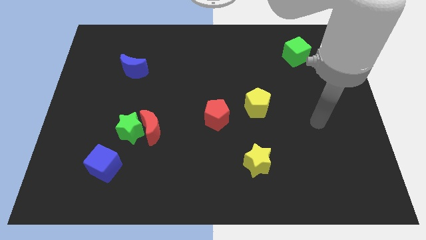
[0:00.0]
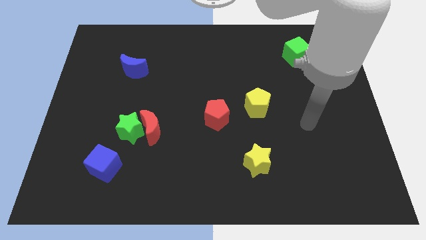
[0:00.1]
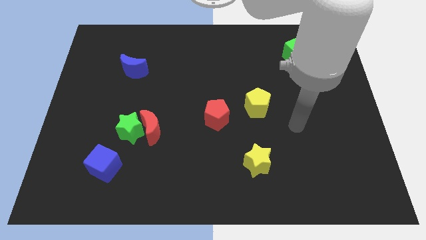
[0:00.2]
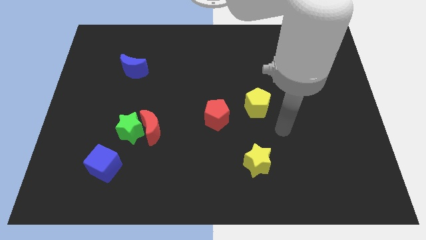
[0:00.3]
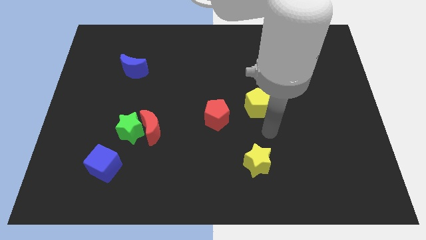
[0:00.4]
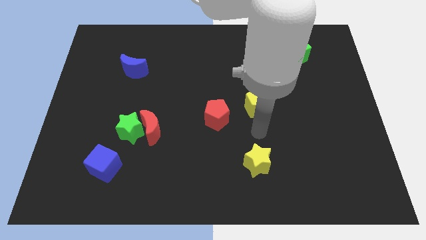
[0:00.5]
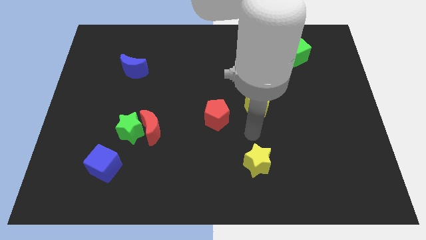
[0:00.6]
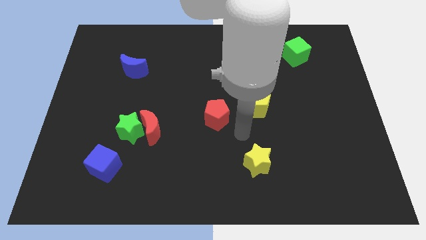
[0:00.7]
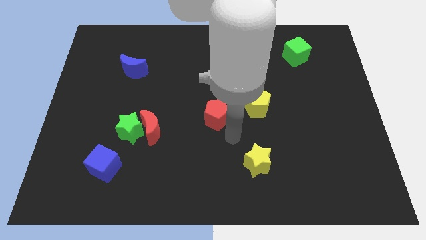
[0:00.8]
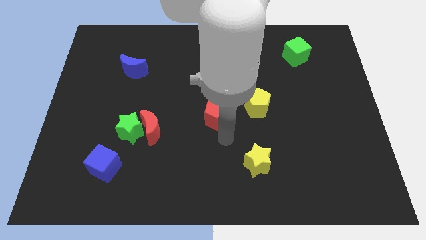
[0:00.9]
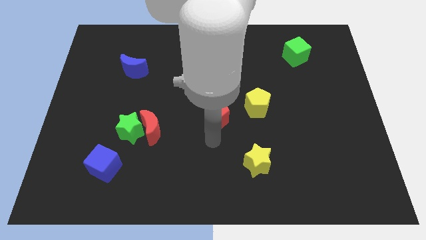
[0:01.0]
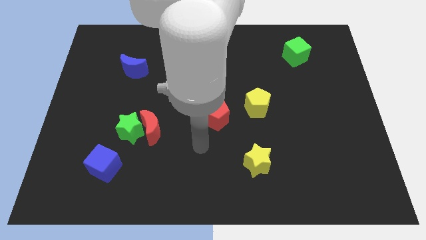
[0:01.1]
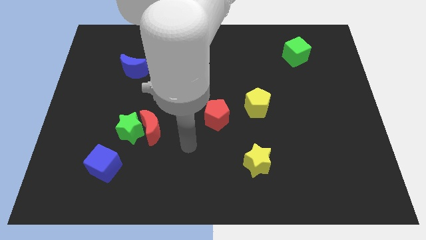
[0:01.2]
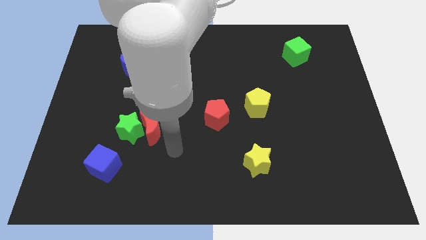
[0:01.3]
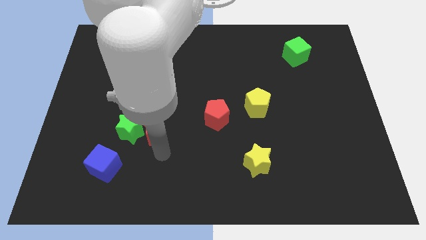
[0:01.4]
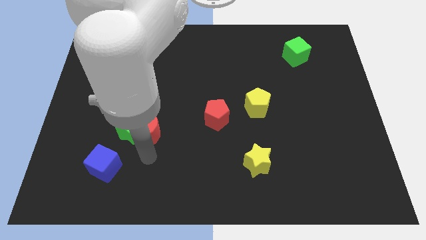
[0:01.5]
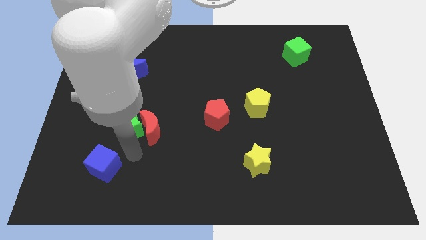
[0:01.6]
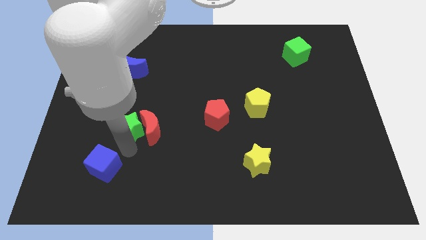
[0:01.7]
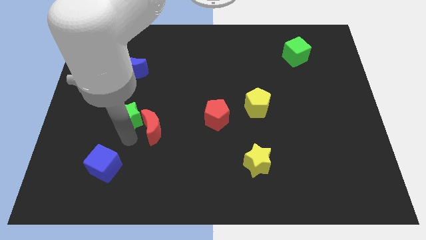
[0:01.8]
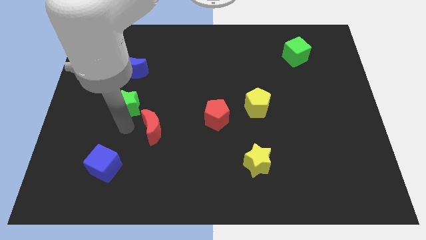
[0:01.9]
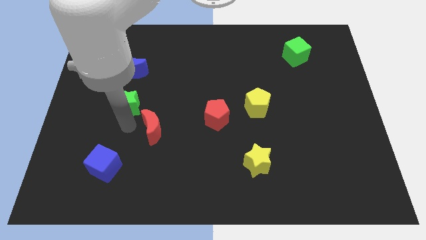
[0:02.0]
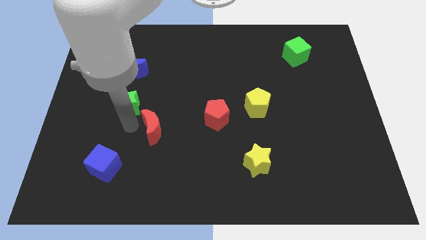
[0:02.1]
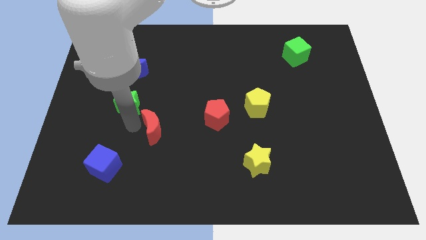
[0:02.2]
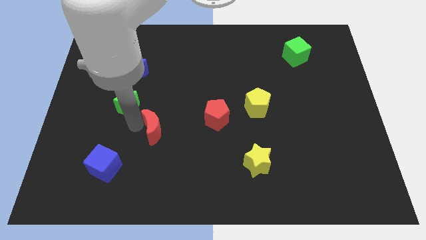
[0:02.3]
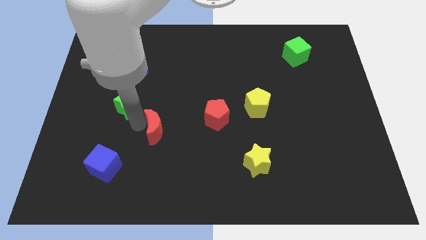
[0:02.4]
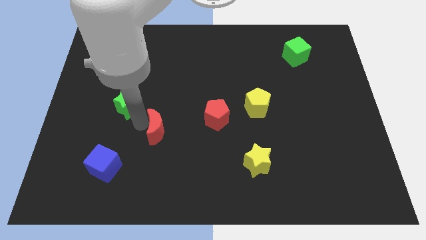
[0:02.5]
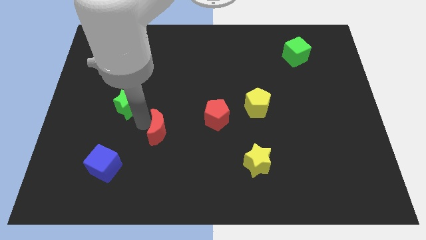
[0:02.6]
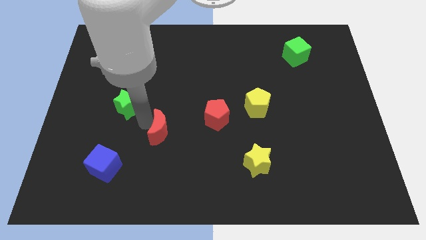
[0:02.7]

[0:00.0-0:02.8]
separate the red moon from the green star

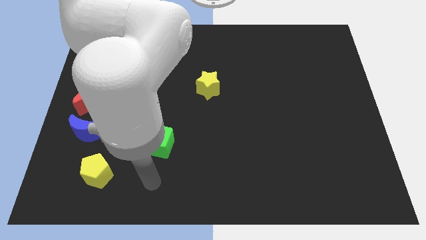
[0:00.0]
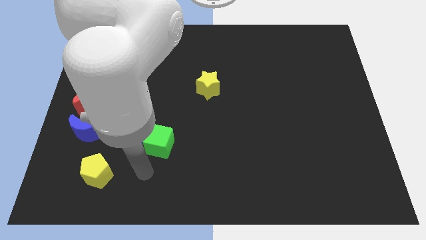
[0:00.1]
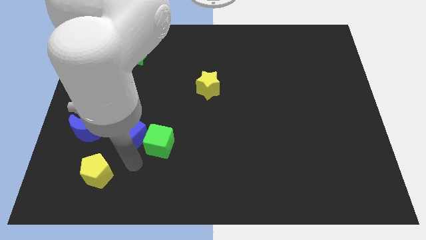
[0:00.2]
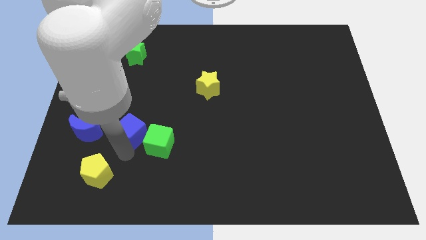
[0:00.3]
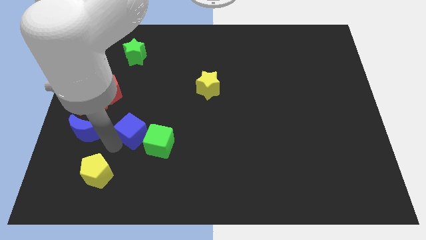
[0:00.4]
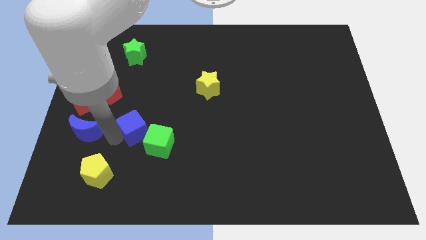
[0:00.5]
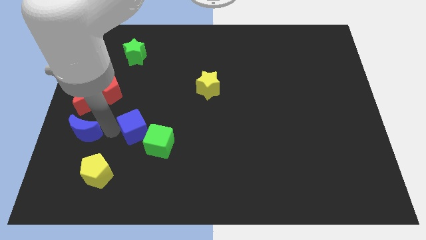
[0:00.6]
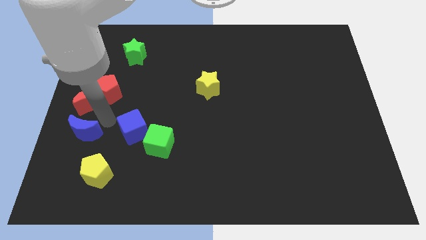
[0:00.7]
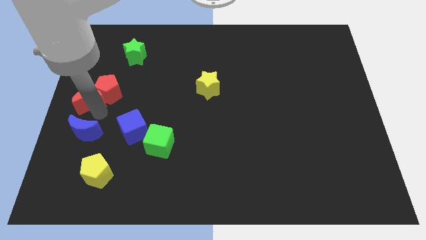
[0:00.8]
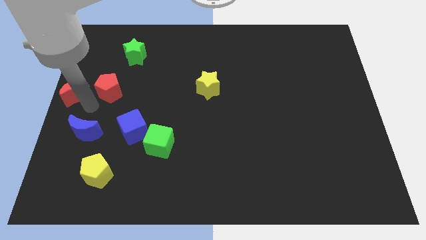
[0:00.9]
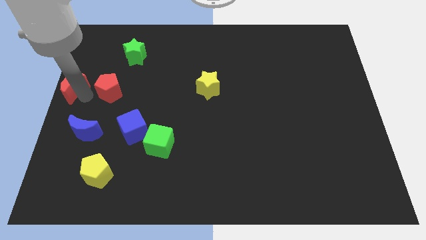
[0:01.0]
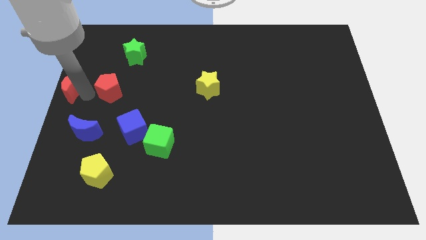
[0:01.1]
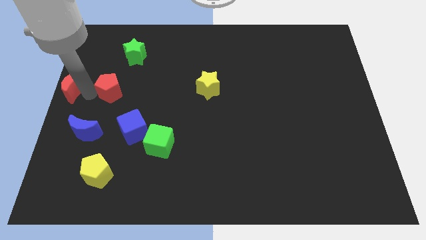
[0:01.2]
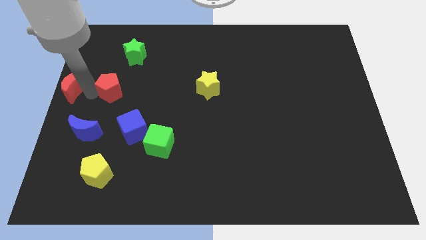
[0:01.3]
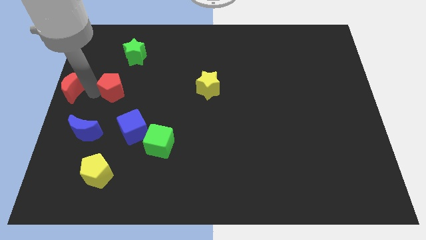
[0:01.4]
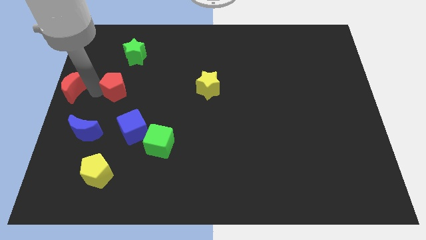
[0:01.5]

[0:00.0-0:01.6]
move the red pentagon away from the red moon

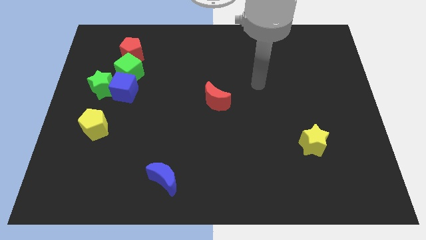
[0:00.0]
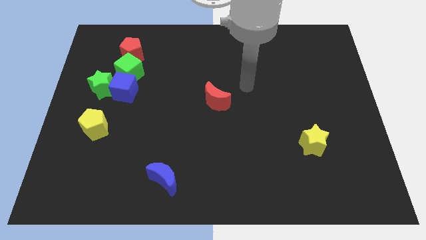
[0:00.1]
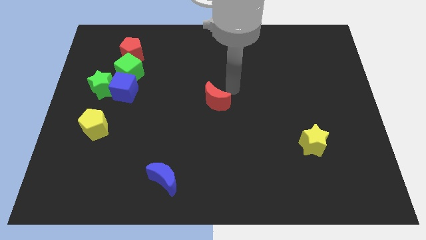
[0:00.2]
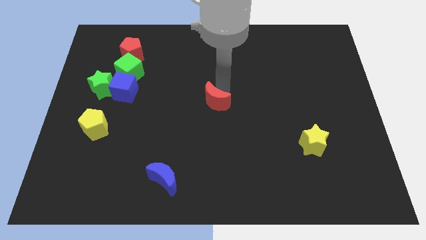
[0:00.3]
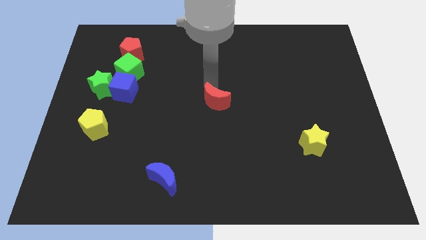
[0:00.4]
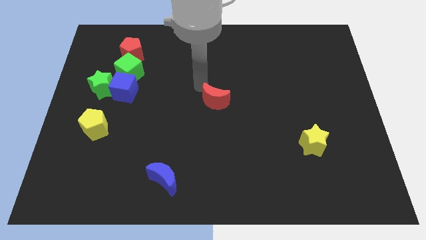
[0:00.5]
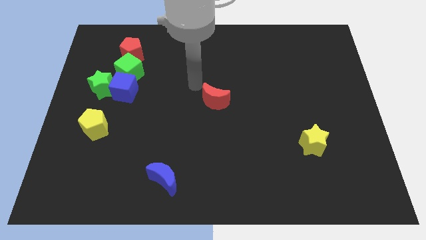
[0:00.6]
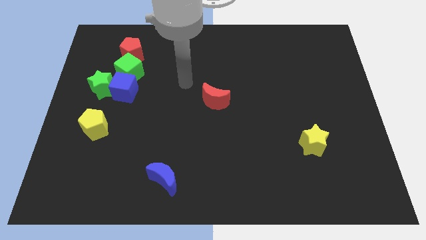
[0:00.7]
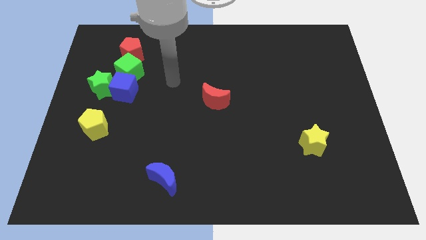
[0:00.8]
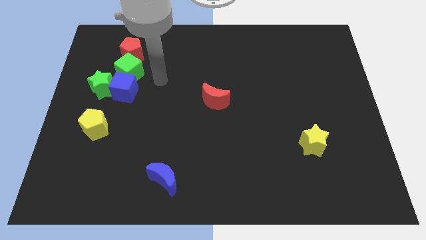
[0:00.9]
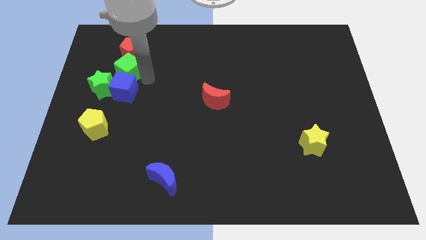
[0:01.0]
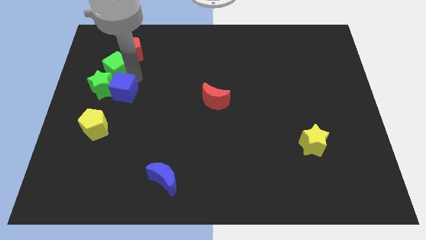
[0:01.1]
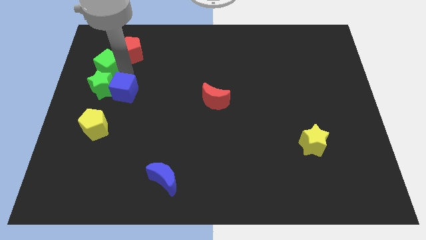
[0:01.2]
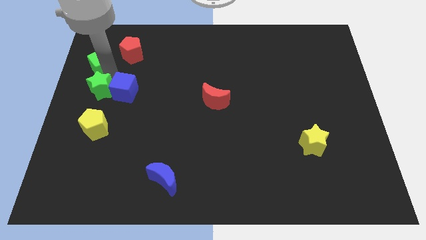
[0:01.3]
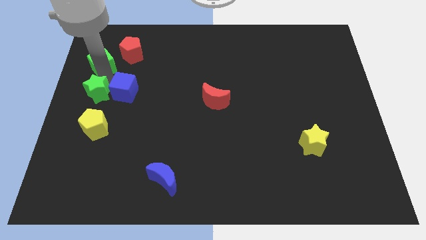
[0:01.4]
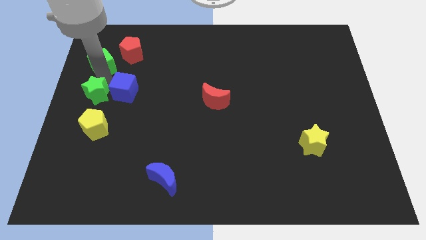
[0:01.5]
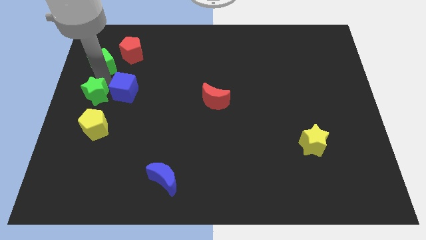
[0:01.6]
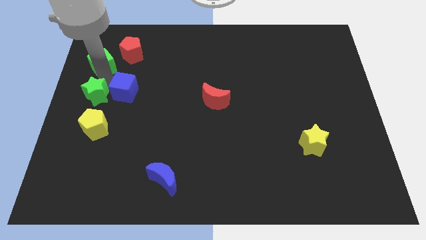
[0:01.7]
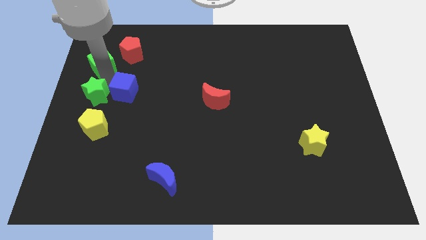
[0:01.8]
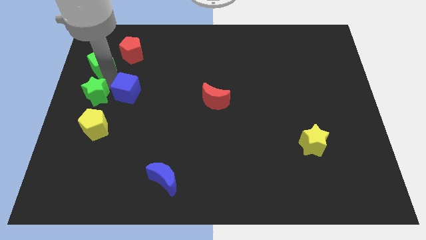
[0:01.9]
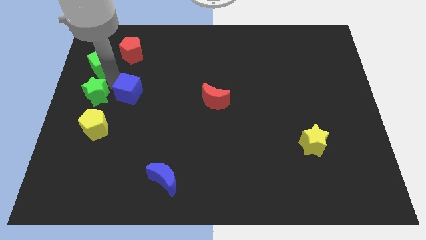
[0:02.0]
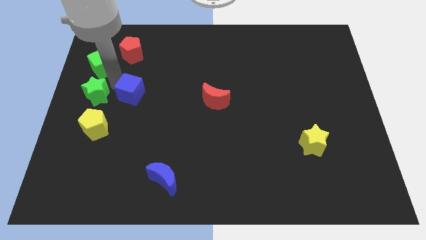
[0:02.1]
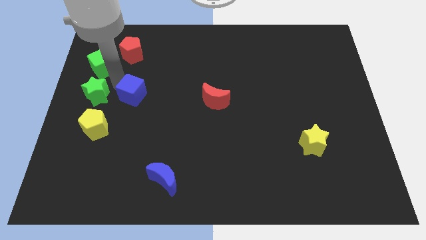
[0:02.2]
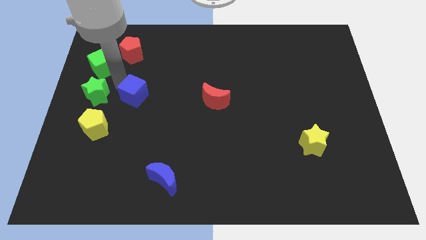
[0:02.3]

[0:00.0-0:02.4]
pull the blue cube apart from the green star and green cube

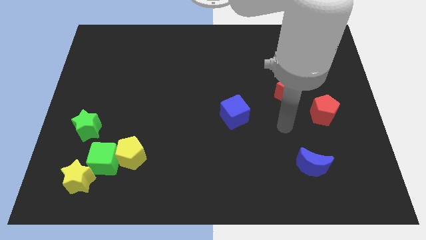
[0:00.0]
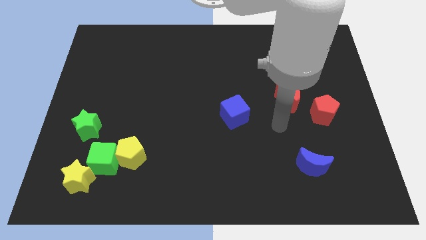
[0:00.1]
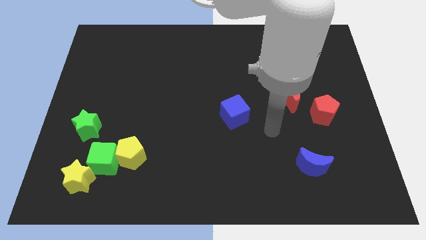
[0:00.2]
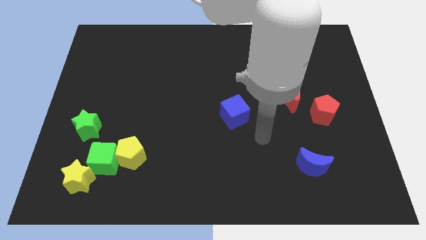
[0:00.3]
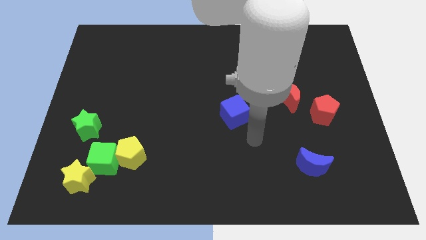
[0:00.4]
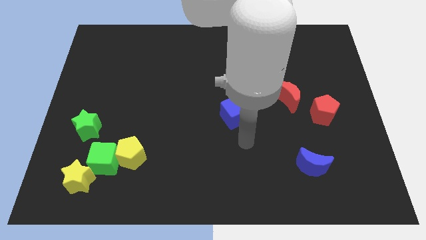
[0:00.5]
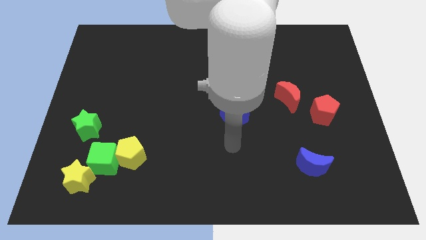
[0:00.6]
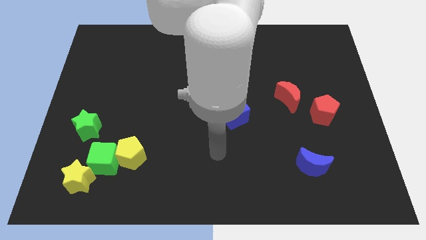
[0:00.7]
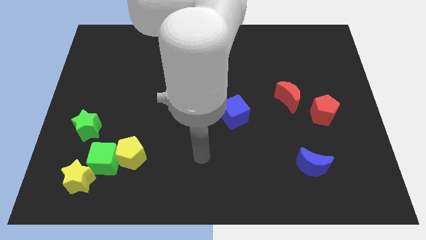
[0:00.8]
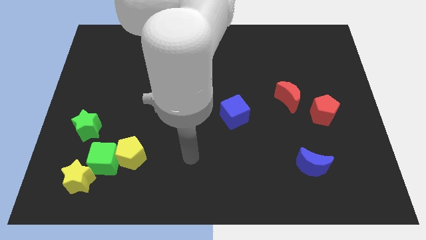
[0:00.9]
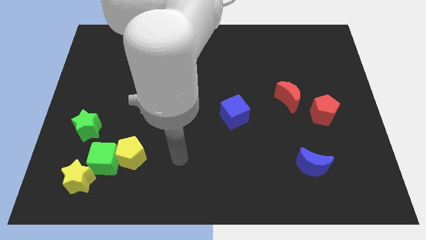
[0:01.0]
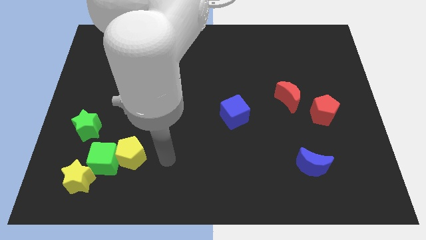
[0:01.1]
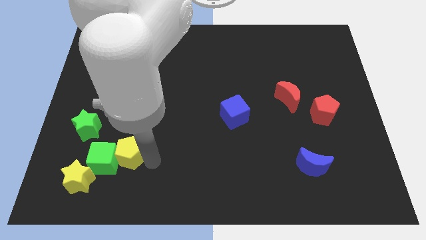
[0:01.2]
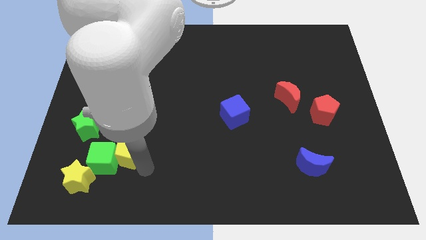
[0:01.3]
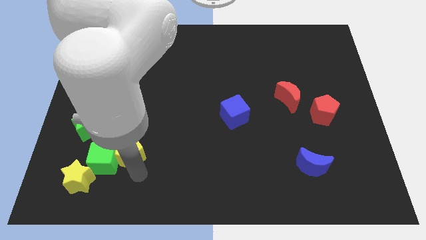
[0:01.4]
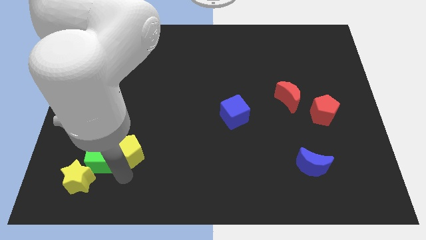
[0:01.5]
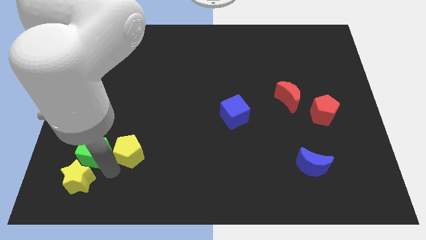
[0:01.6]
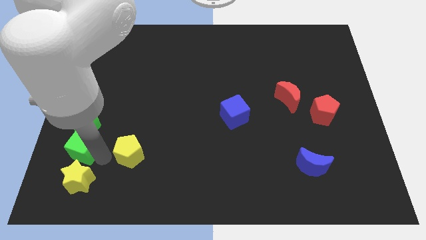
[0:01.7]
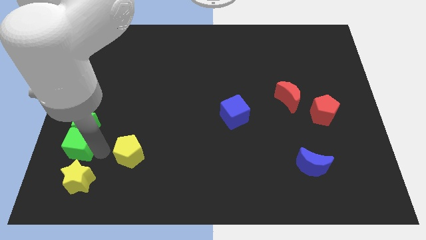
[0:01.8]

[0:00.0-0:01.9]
pull the yellow pentagon apart from the green cube

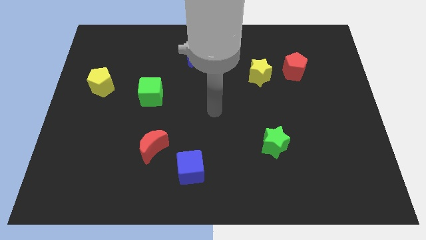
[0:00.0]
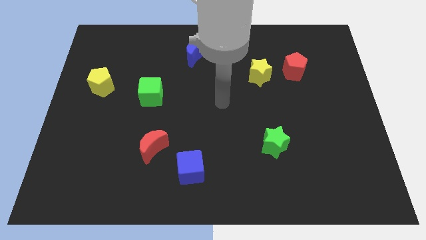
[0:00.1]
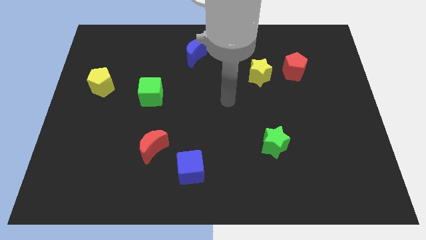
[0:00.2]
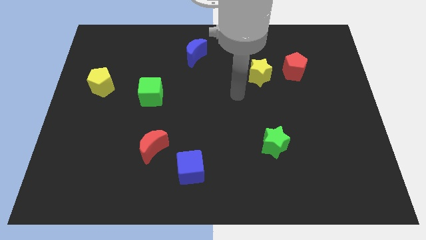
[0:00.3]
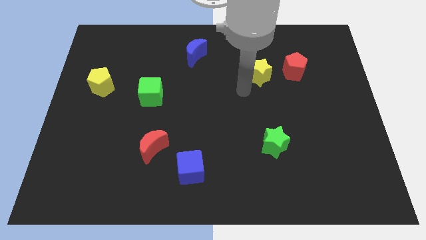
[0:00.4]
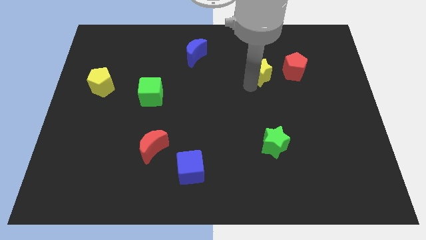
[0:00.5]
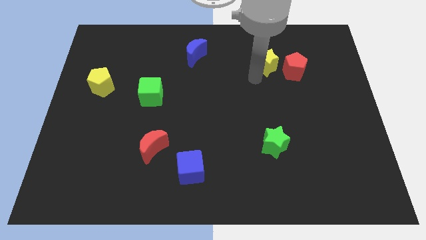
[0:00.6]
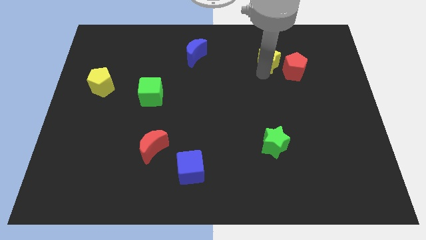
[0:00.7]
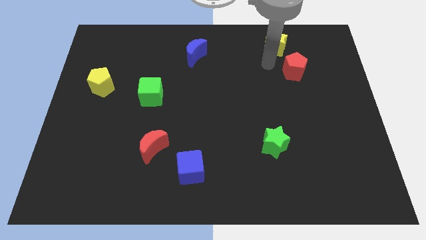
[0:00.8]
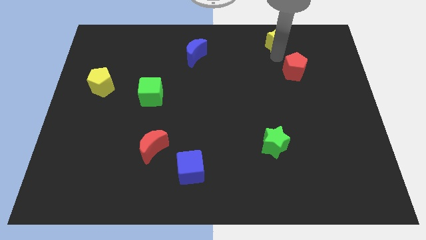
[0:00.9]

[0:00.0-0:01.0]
move the red pentagon away from the yellow star
